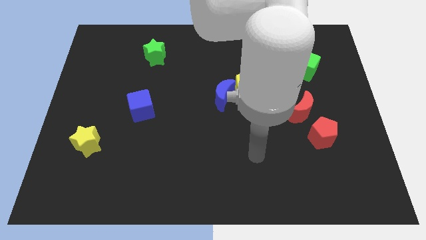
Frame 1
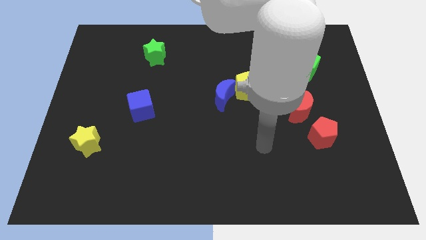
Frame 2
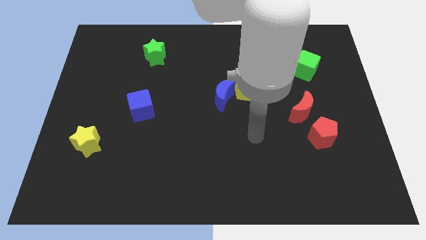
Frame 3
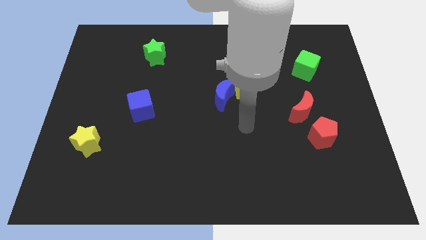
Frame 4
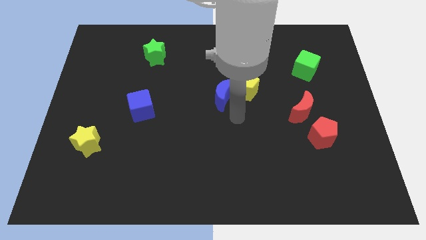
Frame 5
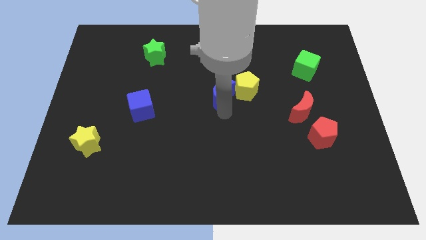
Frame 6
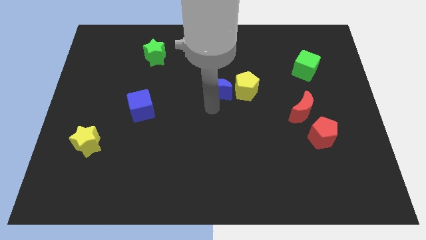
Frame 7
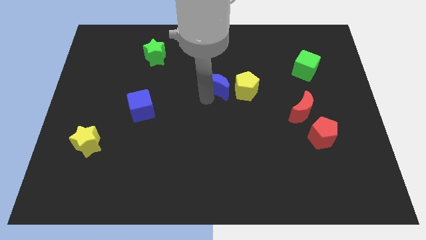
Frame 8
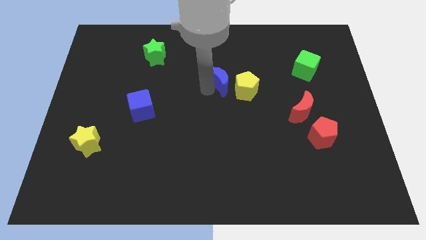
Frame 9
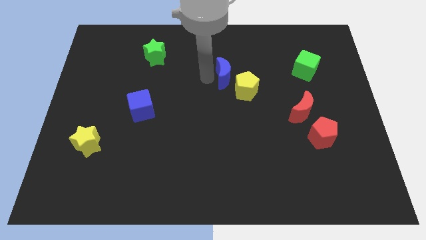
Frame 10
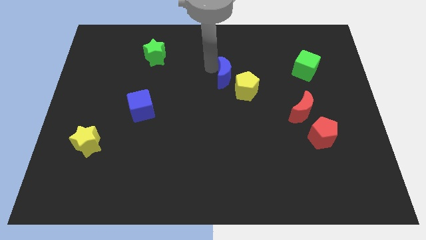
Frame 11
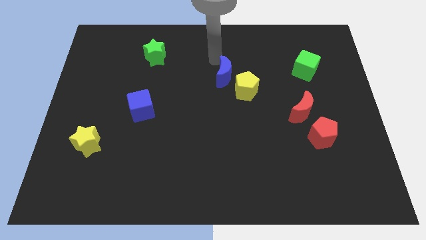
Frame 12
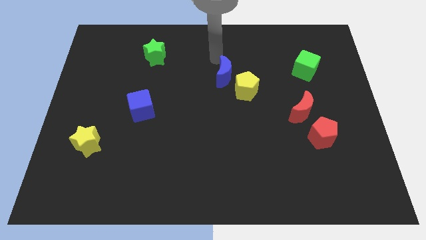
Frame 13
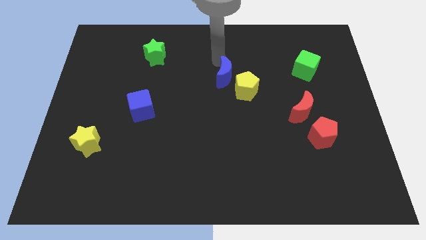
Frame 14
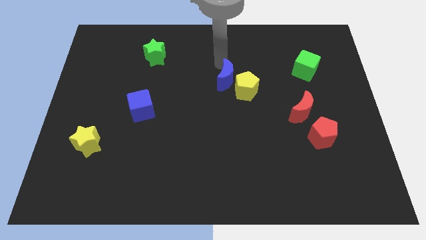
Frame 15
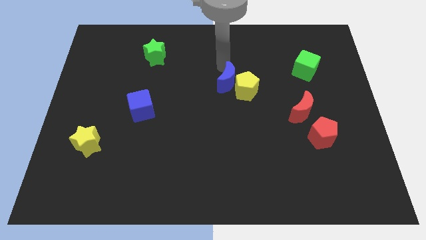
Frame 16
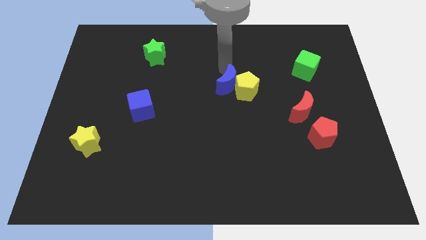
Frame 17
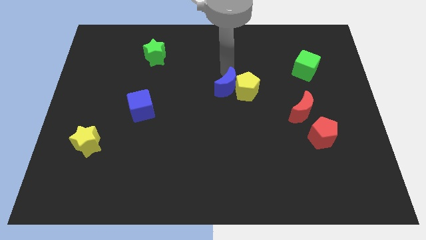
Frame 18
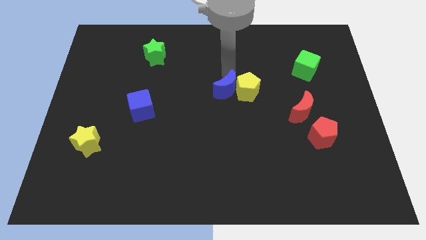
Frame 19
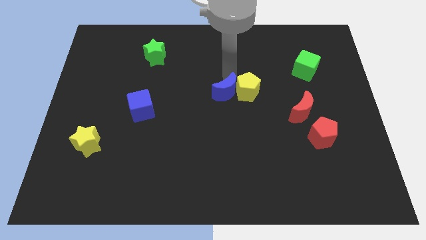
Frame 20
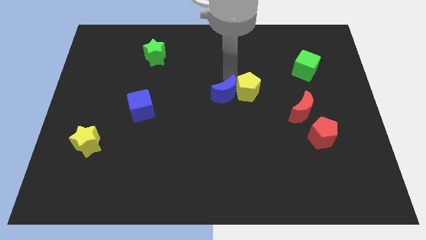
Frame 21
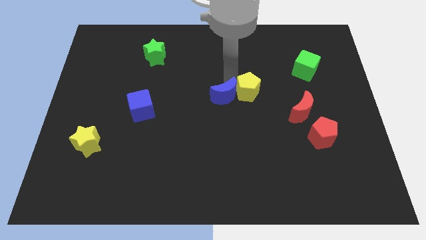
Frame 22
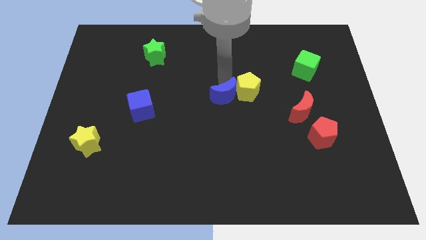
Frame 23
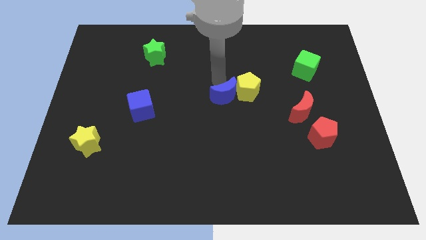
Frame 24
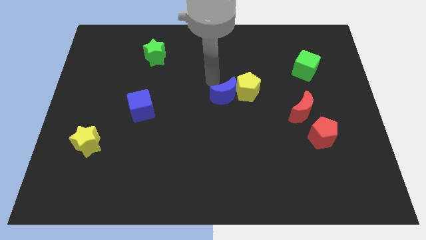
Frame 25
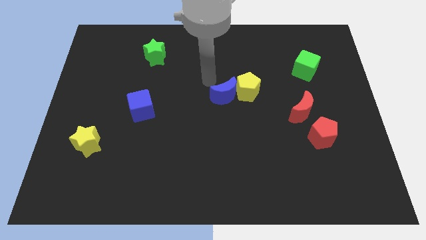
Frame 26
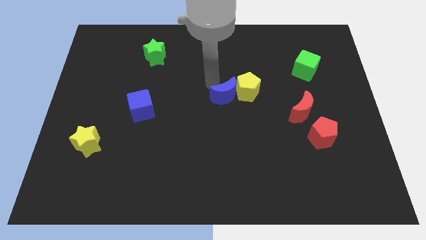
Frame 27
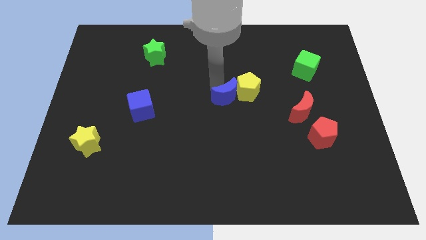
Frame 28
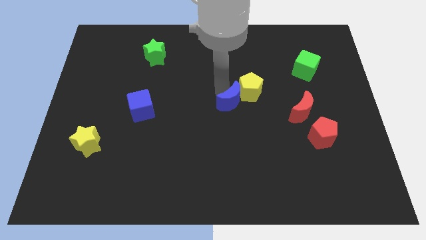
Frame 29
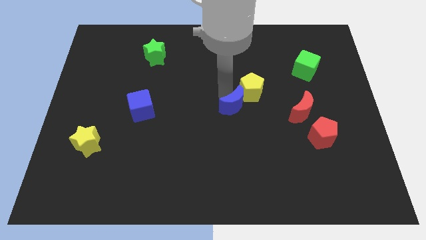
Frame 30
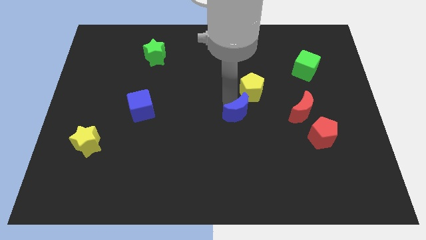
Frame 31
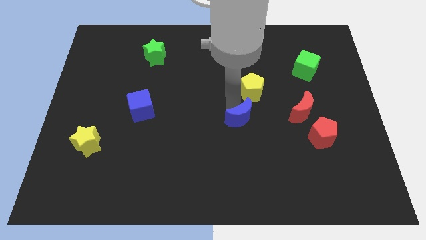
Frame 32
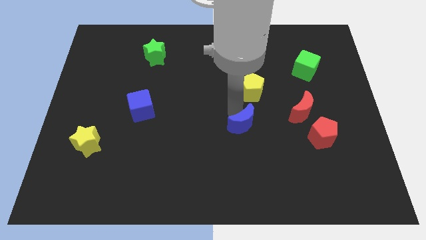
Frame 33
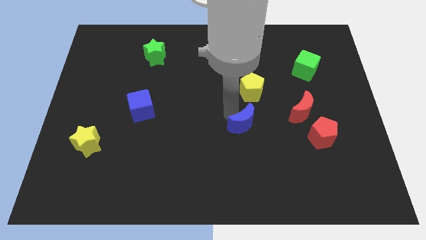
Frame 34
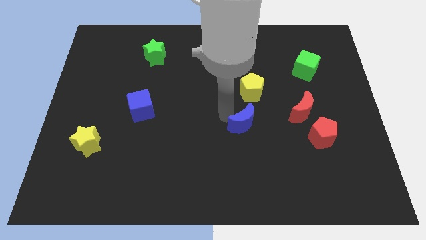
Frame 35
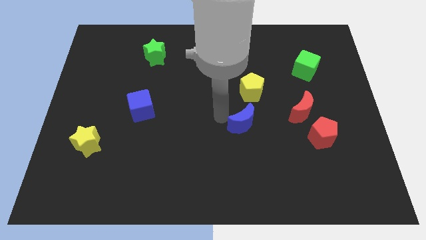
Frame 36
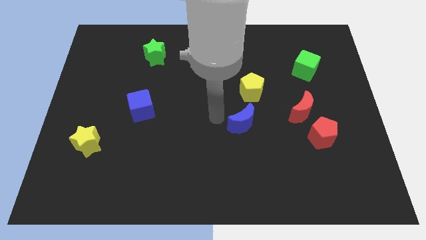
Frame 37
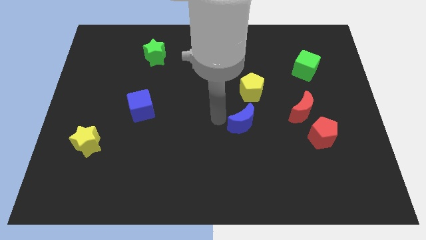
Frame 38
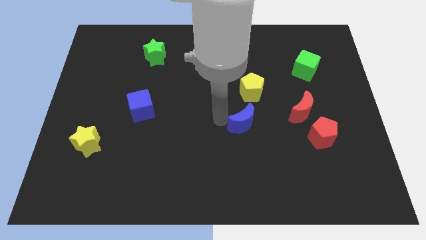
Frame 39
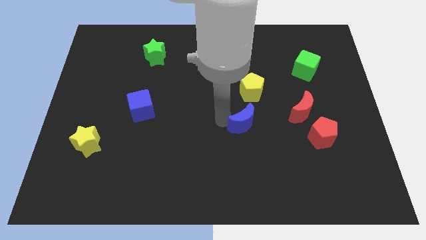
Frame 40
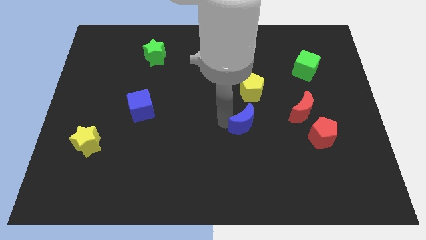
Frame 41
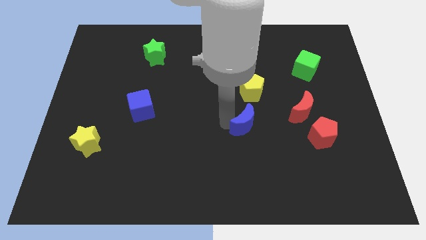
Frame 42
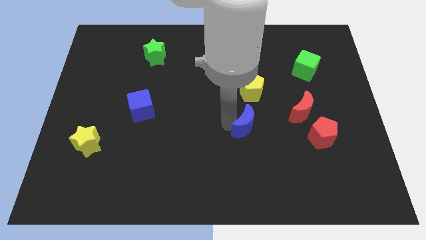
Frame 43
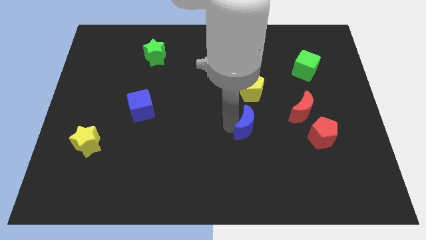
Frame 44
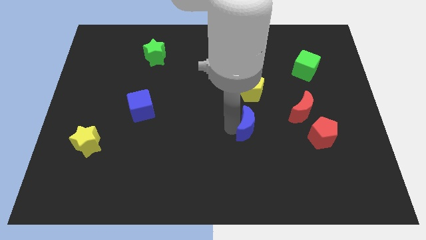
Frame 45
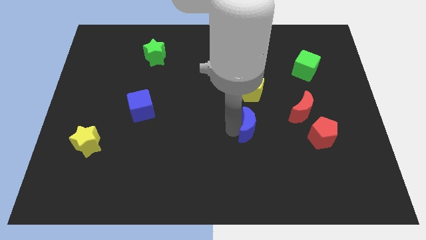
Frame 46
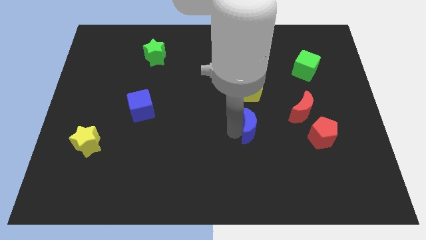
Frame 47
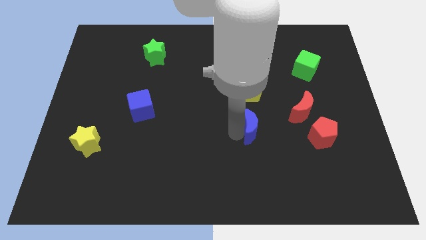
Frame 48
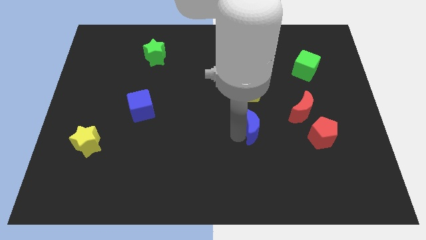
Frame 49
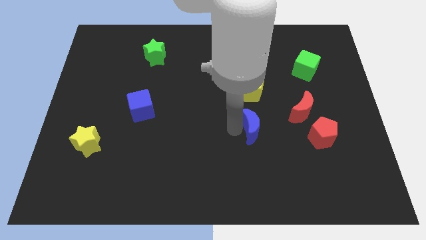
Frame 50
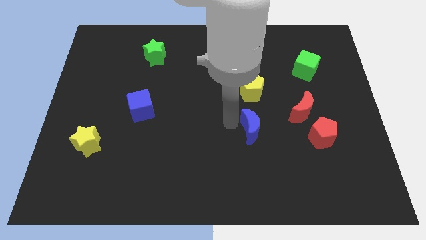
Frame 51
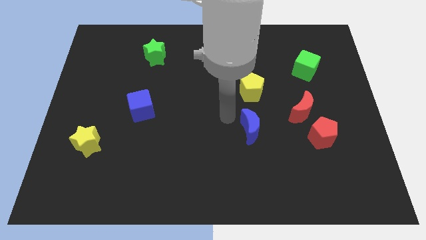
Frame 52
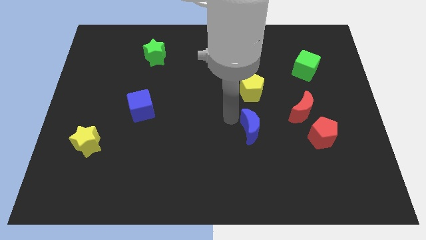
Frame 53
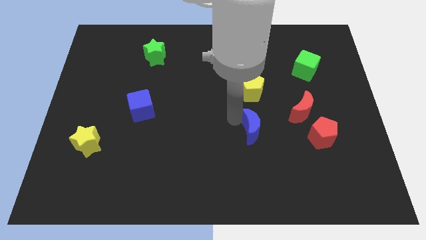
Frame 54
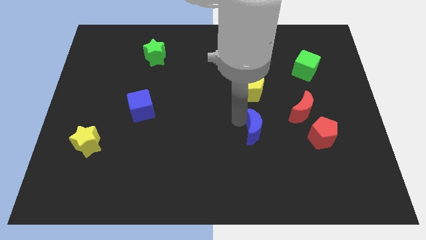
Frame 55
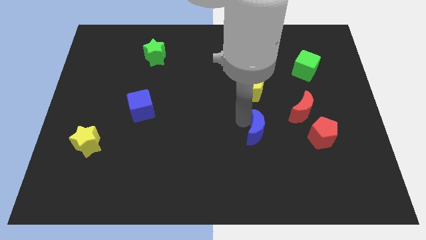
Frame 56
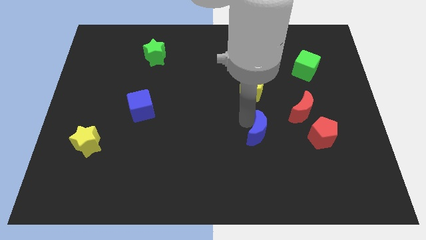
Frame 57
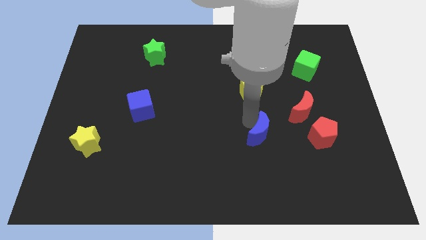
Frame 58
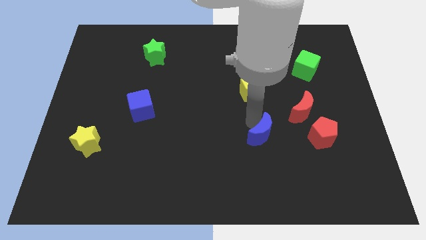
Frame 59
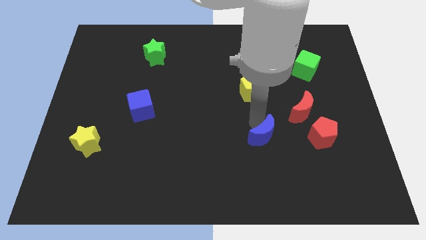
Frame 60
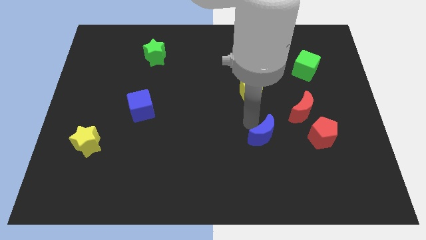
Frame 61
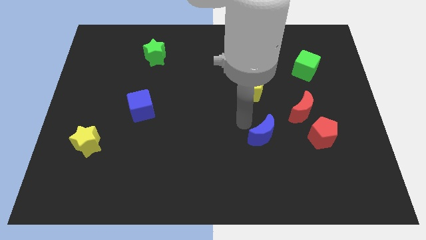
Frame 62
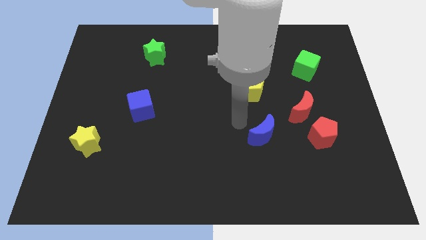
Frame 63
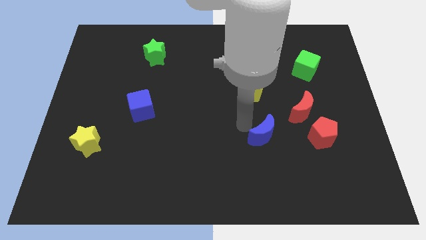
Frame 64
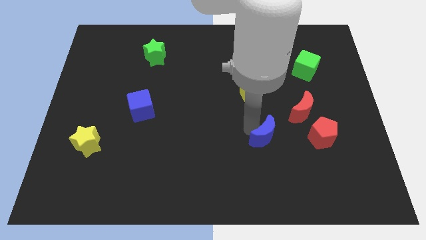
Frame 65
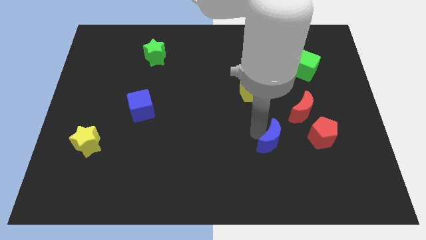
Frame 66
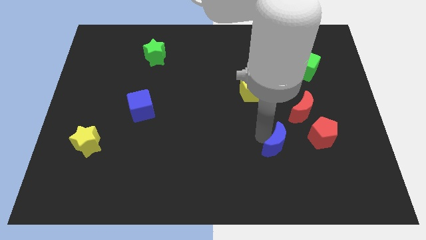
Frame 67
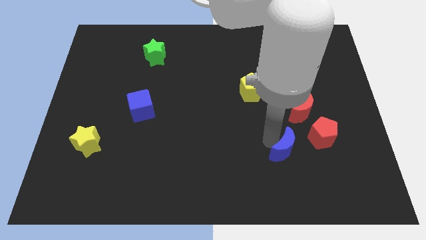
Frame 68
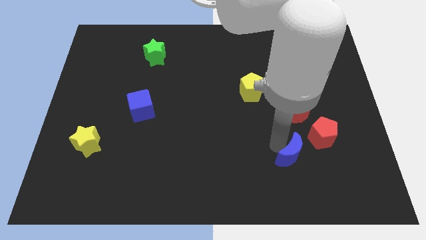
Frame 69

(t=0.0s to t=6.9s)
slide the blue moon down and right

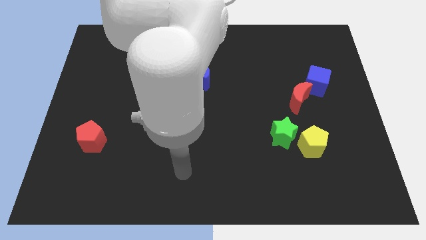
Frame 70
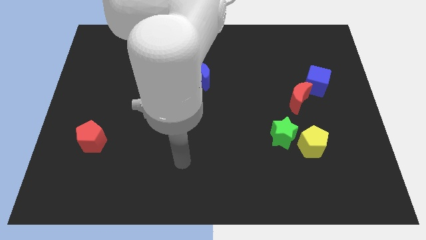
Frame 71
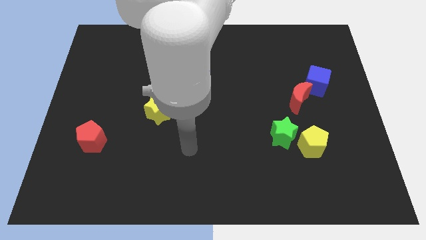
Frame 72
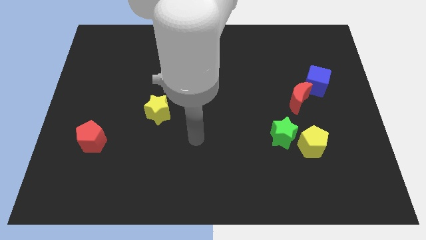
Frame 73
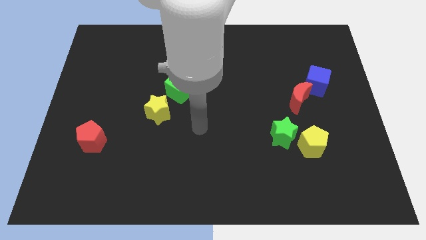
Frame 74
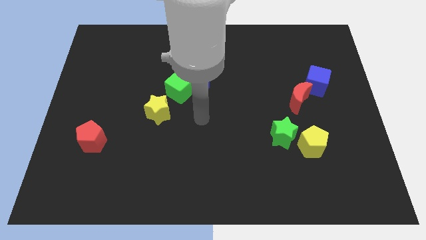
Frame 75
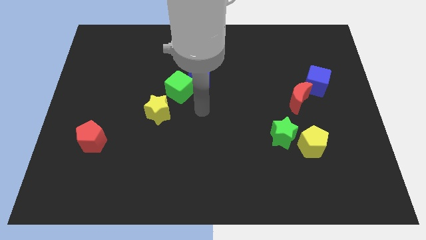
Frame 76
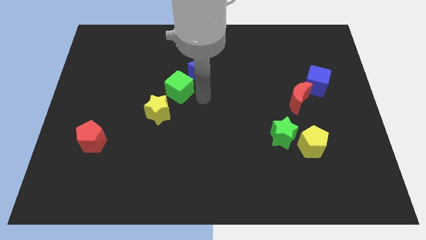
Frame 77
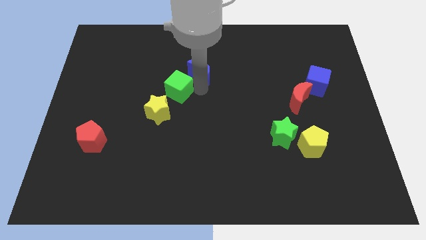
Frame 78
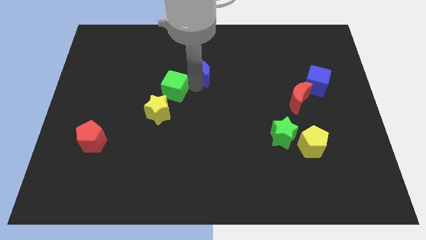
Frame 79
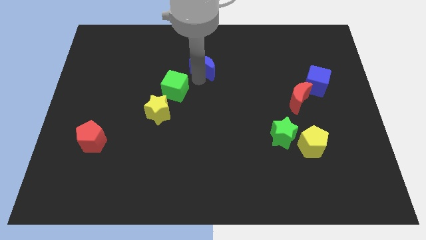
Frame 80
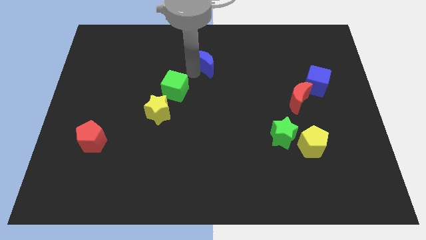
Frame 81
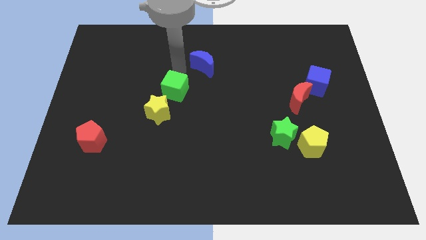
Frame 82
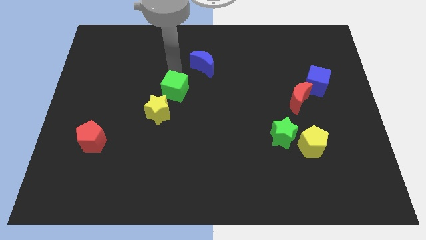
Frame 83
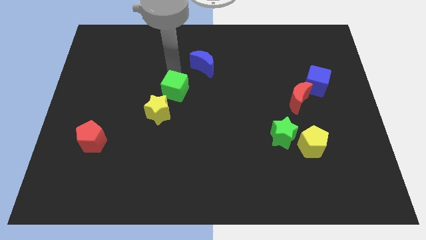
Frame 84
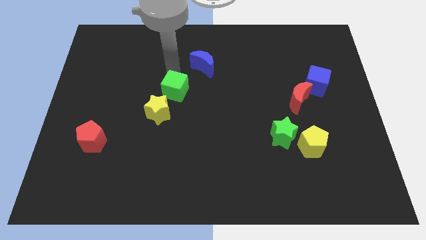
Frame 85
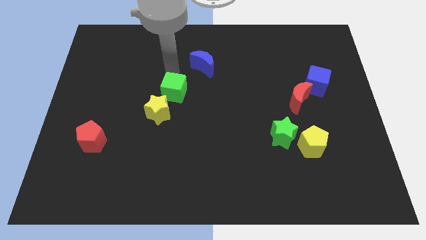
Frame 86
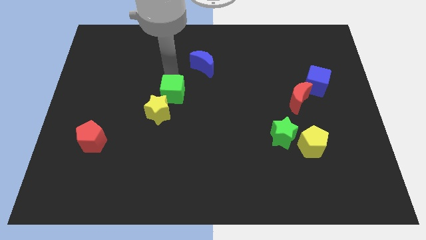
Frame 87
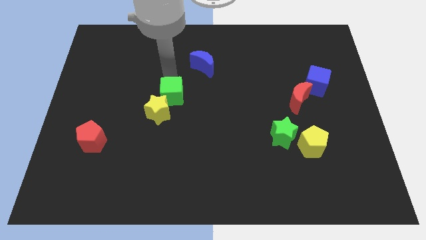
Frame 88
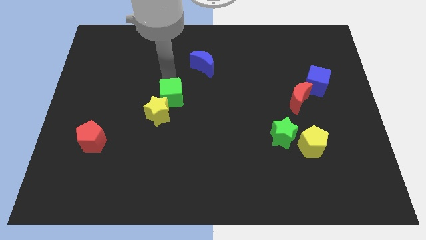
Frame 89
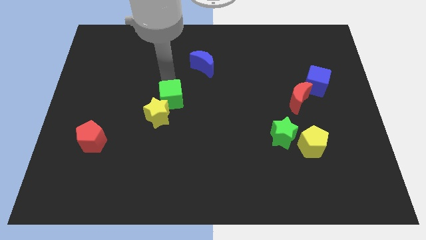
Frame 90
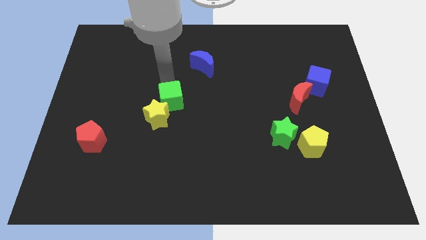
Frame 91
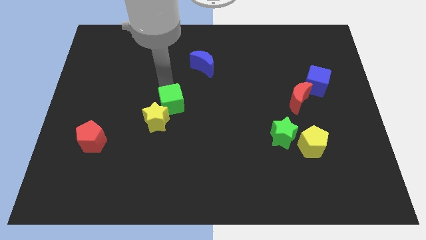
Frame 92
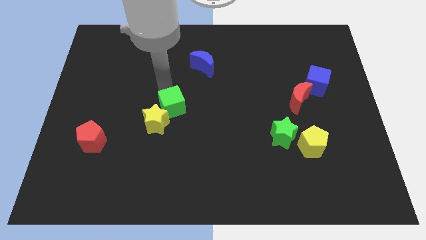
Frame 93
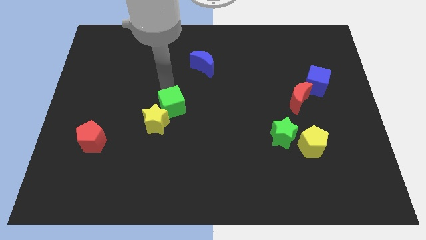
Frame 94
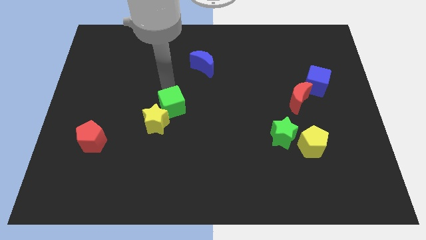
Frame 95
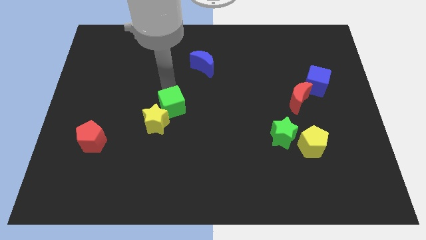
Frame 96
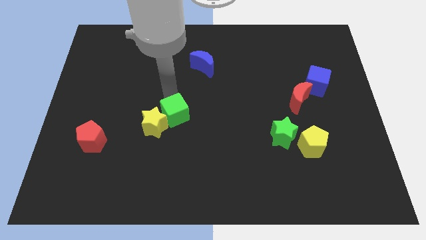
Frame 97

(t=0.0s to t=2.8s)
slightly slide the green cube down
